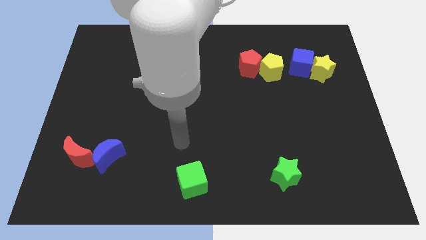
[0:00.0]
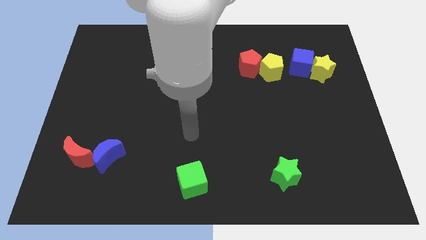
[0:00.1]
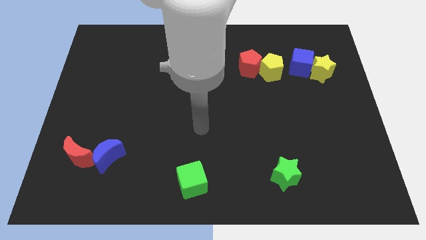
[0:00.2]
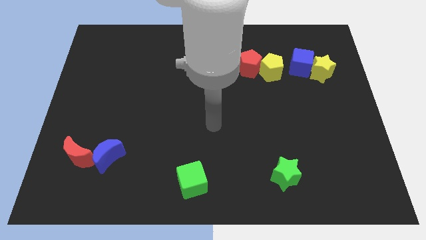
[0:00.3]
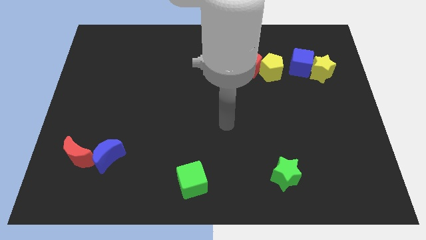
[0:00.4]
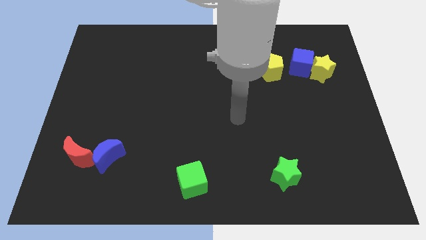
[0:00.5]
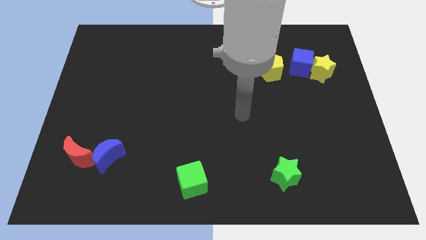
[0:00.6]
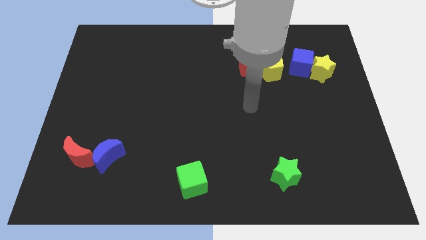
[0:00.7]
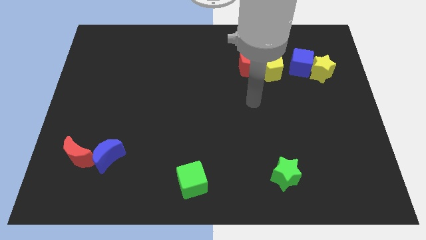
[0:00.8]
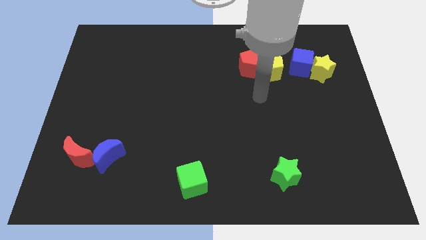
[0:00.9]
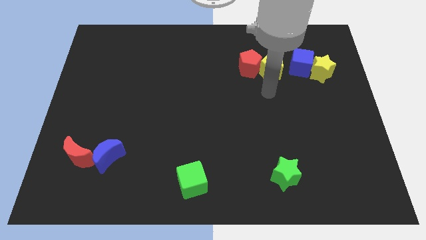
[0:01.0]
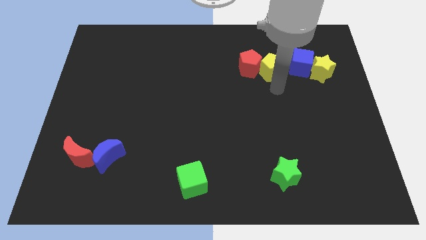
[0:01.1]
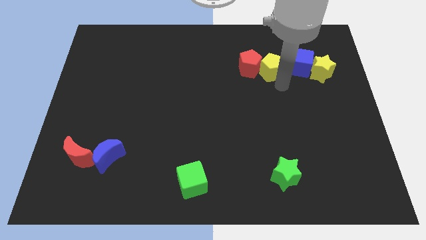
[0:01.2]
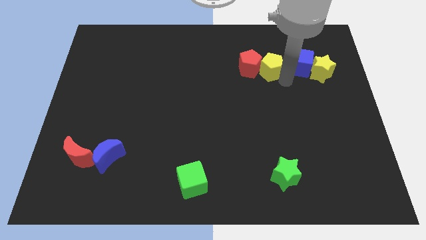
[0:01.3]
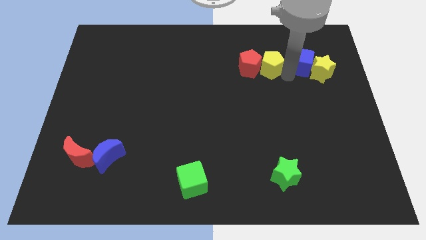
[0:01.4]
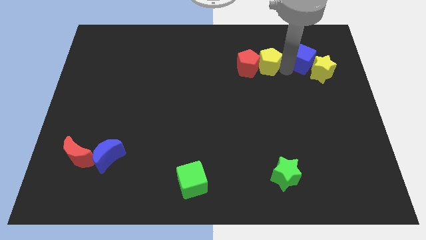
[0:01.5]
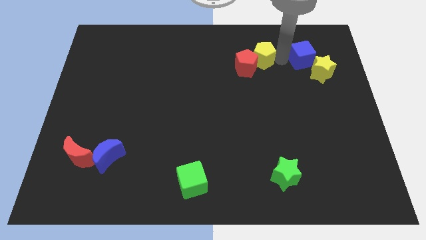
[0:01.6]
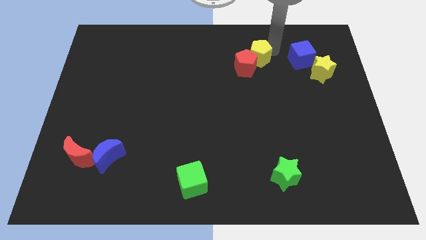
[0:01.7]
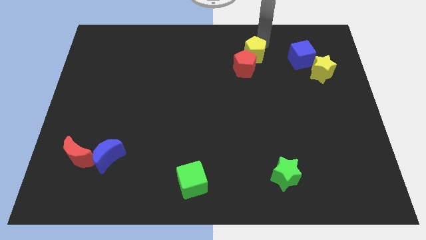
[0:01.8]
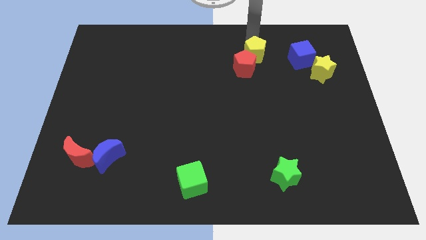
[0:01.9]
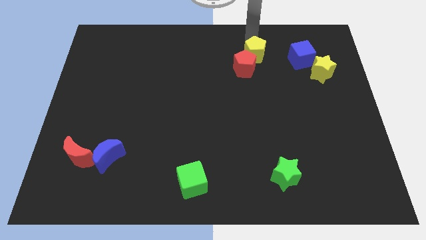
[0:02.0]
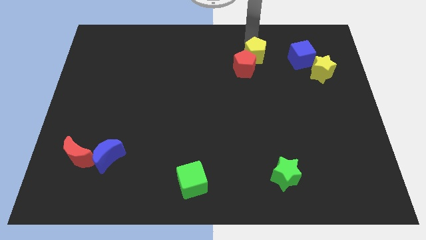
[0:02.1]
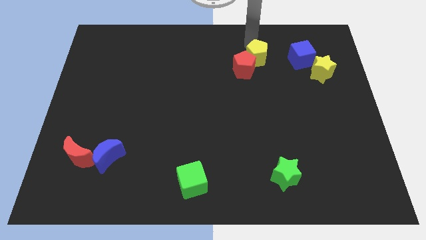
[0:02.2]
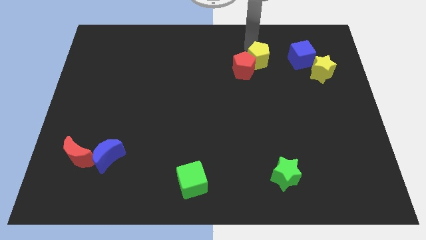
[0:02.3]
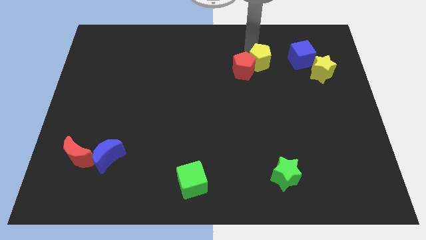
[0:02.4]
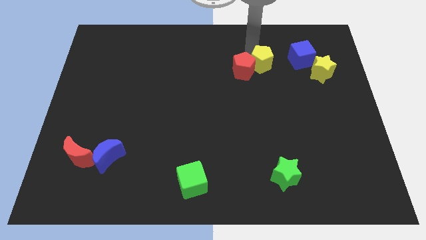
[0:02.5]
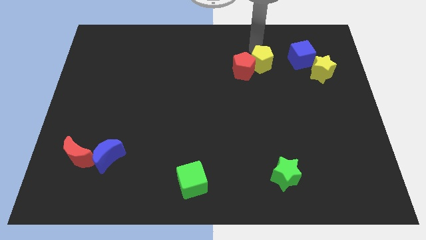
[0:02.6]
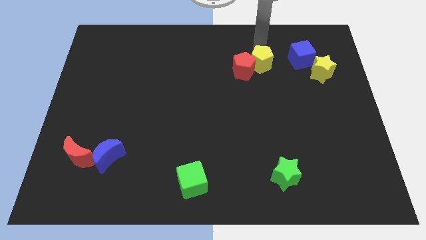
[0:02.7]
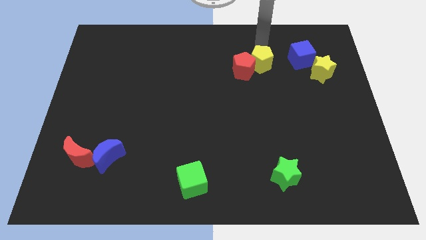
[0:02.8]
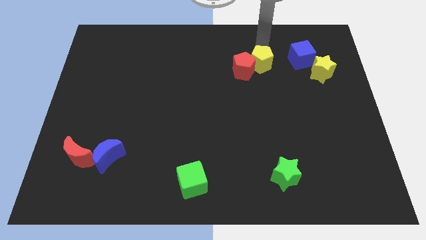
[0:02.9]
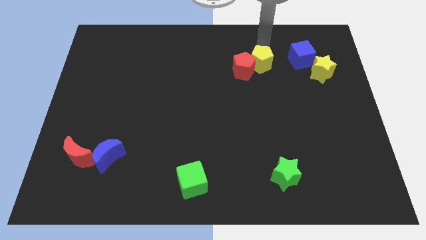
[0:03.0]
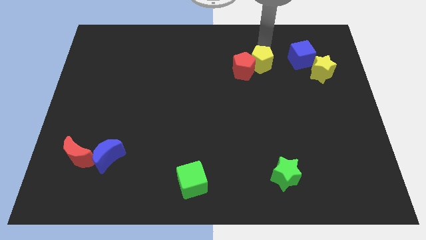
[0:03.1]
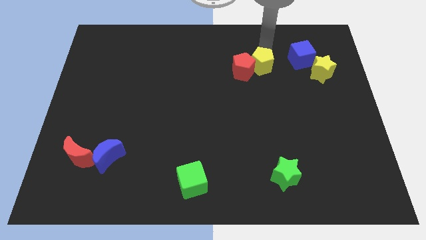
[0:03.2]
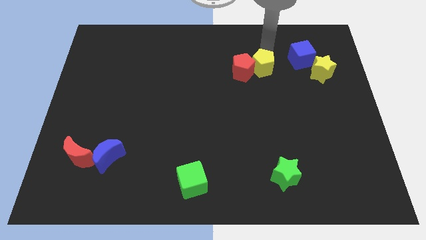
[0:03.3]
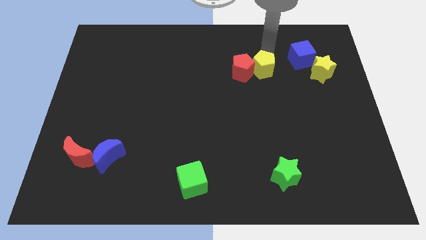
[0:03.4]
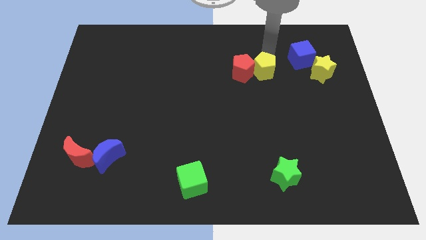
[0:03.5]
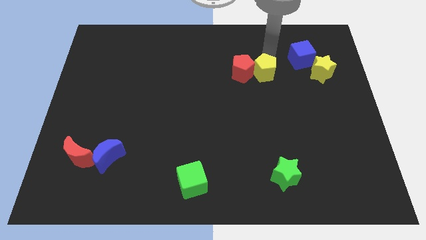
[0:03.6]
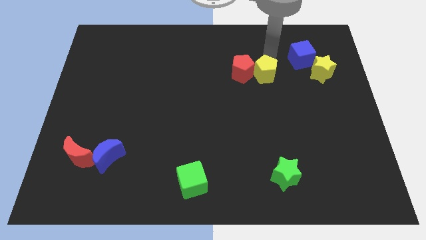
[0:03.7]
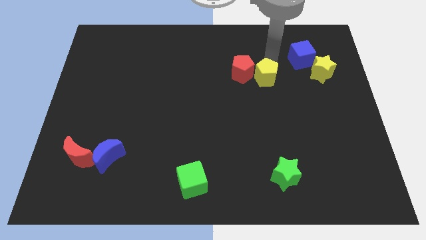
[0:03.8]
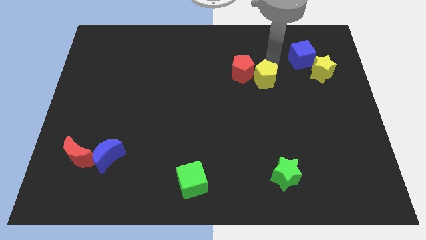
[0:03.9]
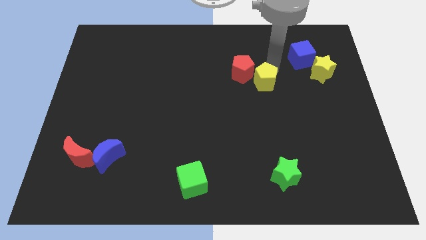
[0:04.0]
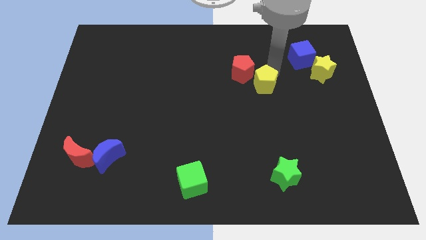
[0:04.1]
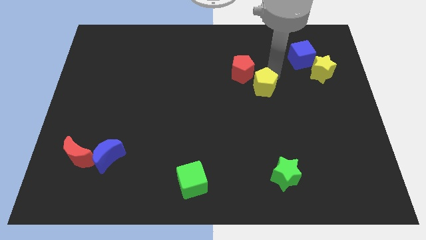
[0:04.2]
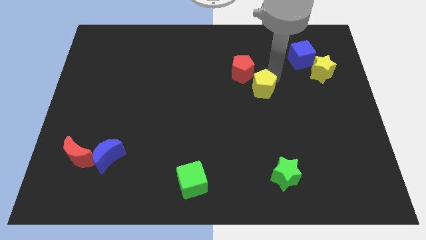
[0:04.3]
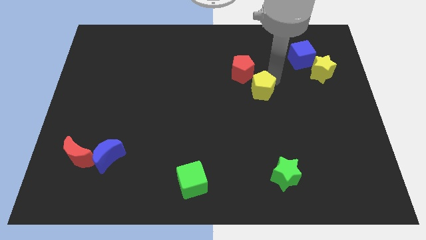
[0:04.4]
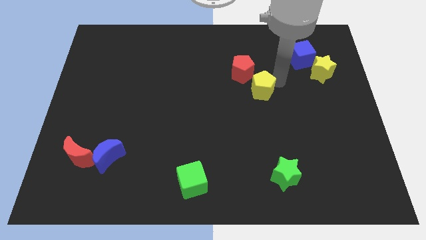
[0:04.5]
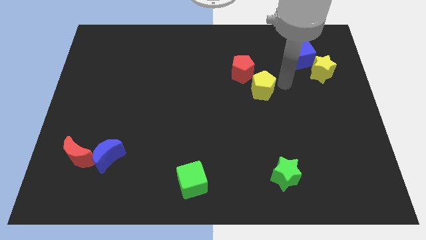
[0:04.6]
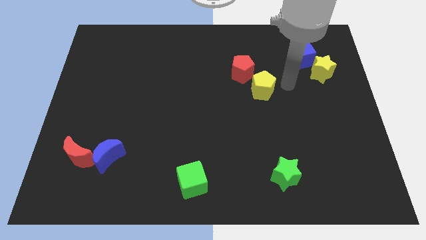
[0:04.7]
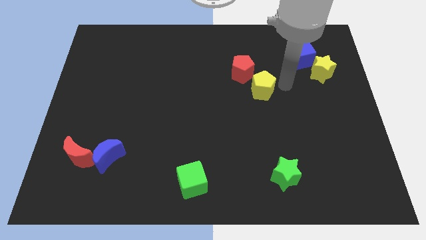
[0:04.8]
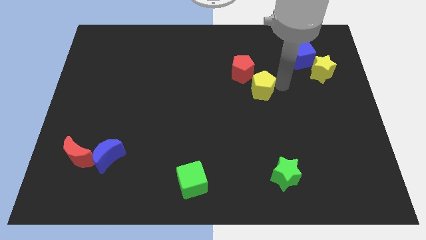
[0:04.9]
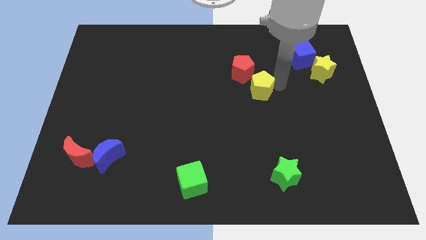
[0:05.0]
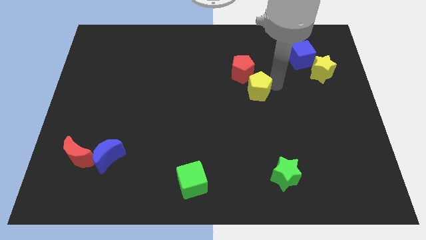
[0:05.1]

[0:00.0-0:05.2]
push the yellow pentagon diagonally down and left a little bit

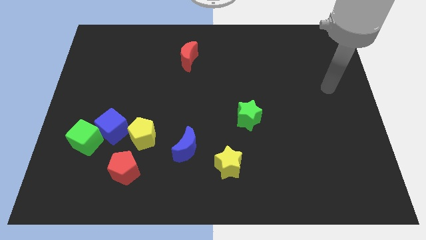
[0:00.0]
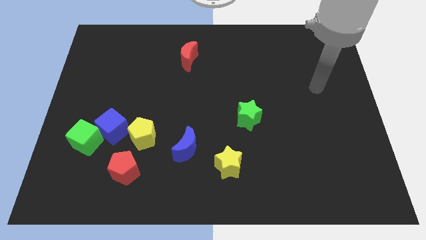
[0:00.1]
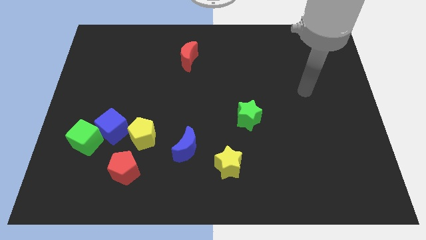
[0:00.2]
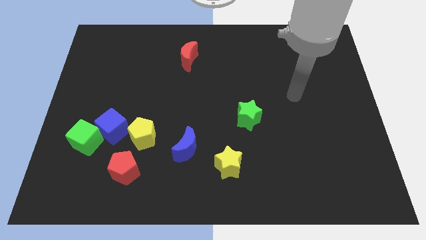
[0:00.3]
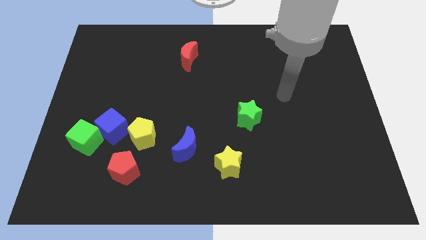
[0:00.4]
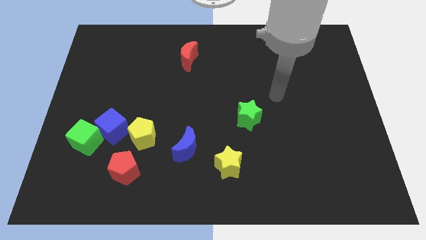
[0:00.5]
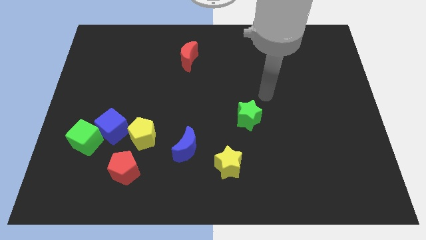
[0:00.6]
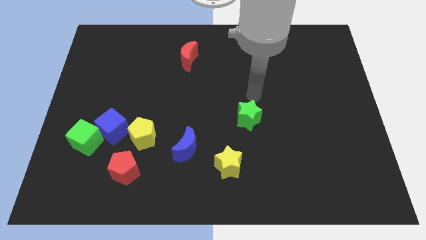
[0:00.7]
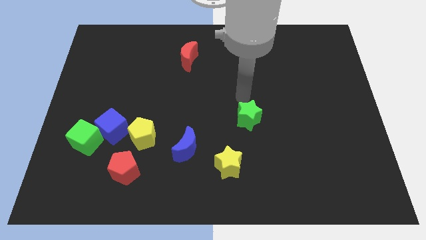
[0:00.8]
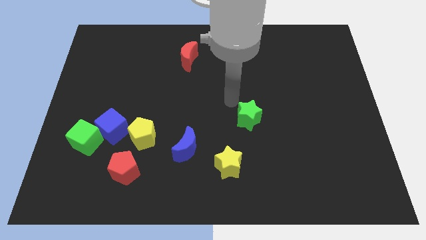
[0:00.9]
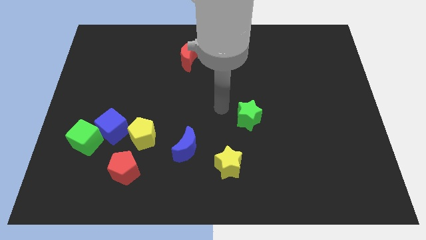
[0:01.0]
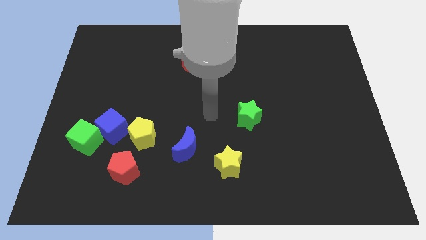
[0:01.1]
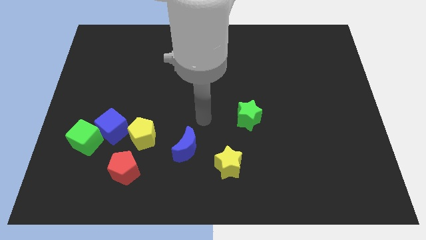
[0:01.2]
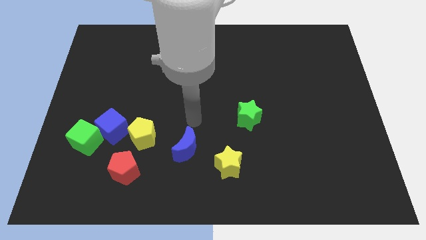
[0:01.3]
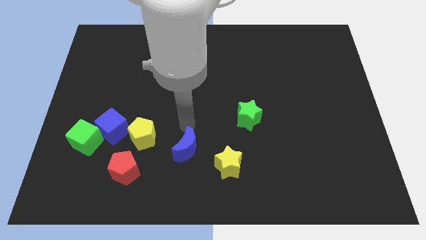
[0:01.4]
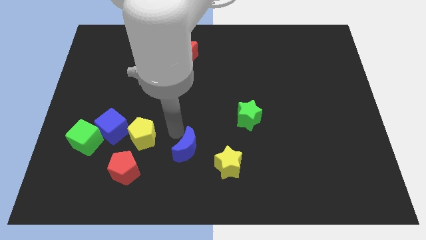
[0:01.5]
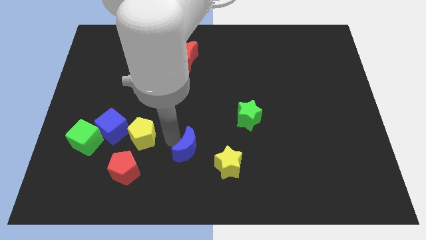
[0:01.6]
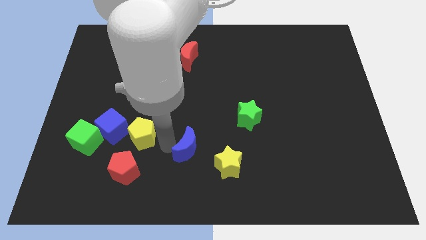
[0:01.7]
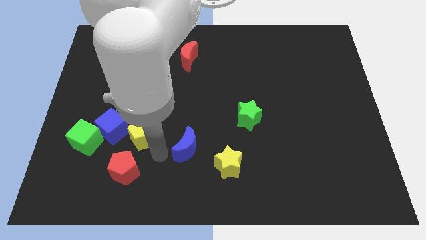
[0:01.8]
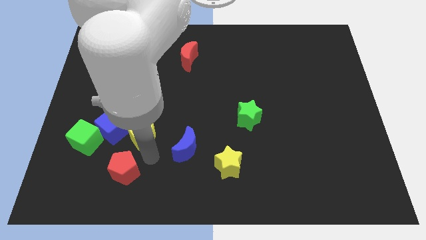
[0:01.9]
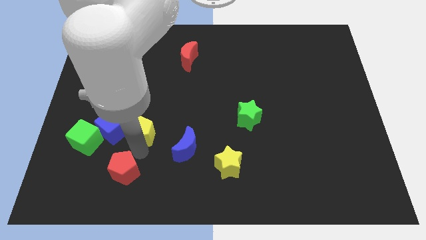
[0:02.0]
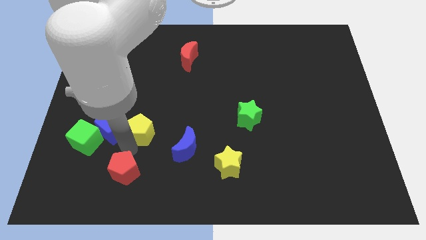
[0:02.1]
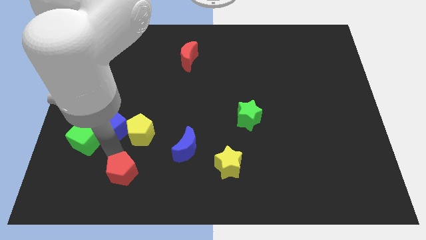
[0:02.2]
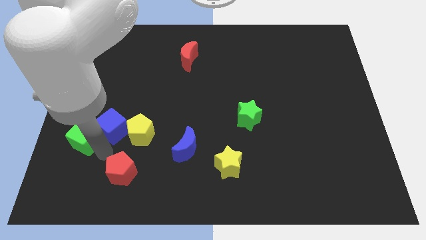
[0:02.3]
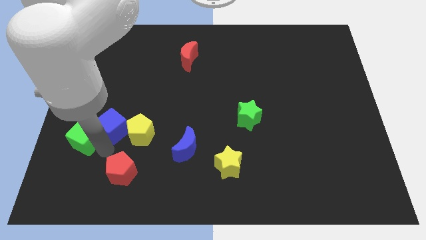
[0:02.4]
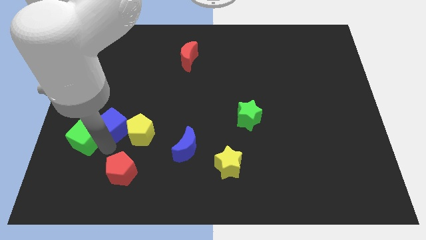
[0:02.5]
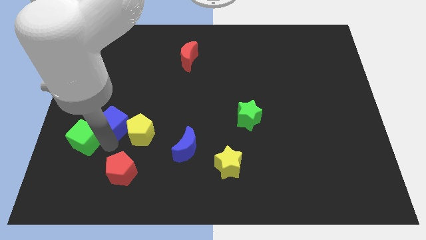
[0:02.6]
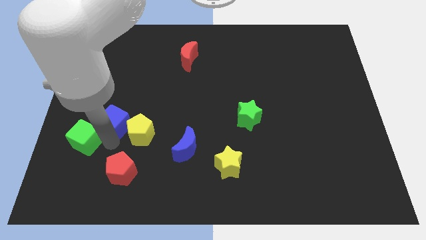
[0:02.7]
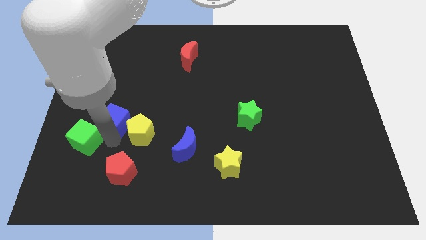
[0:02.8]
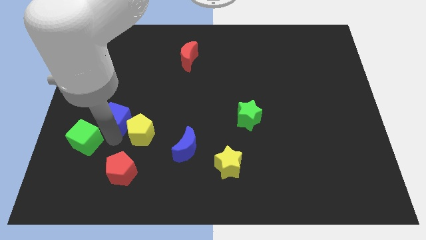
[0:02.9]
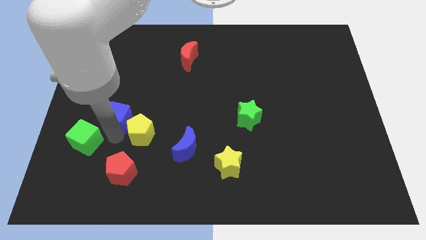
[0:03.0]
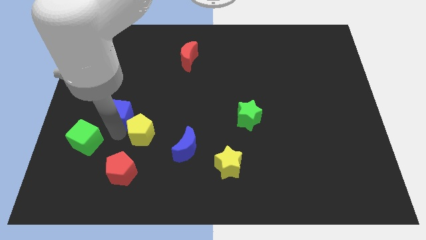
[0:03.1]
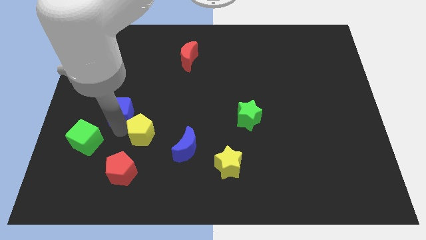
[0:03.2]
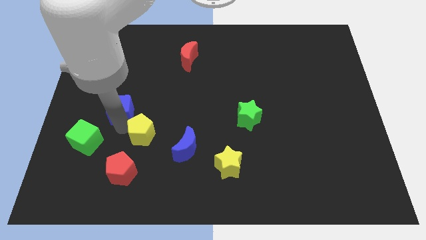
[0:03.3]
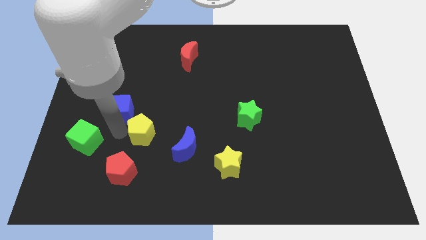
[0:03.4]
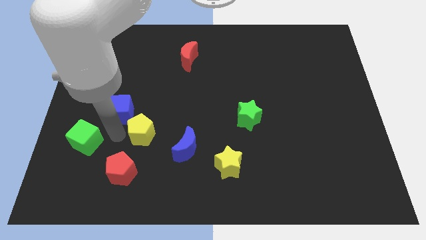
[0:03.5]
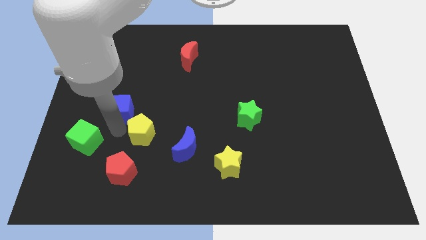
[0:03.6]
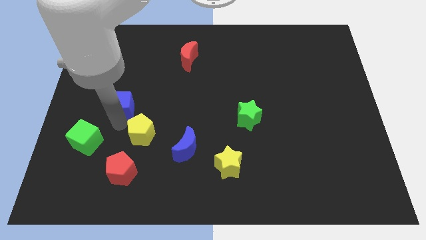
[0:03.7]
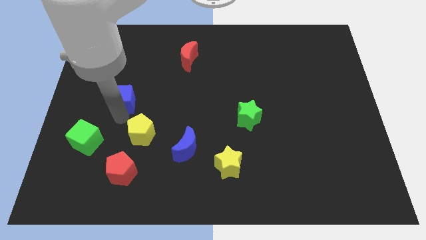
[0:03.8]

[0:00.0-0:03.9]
slightly slide the blue cube up
